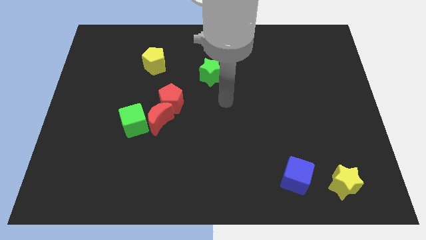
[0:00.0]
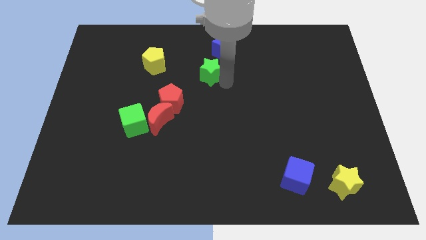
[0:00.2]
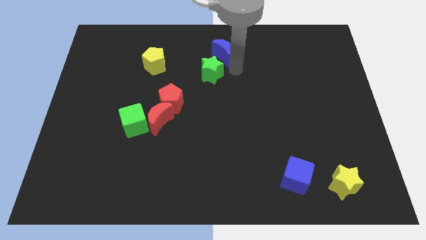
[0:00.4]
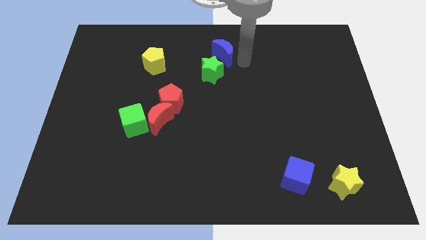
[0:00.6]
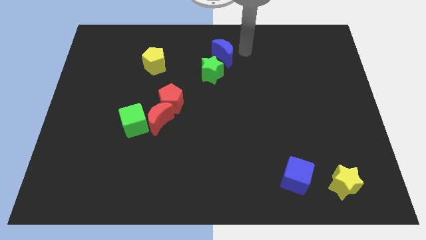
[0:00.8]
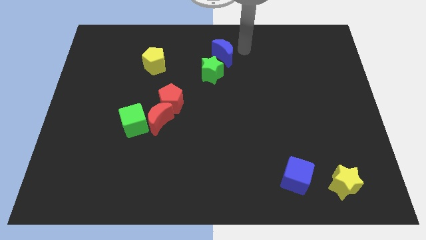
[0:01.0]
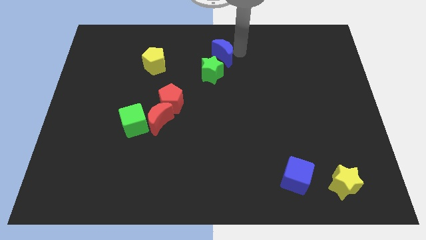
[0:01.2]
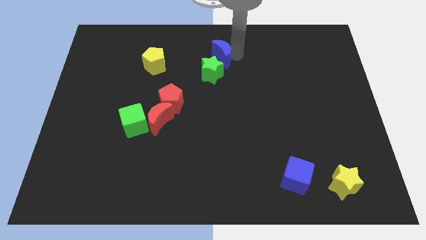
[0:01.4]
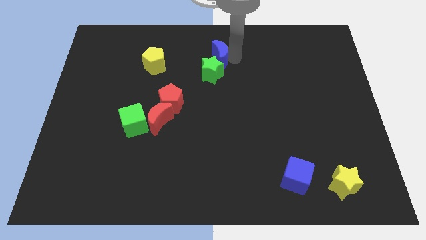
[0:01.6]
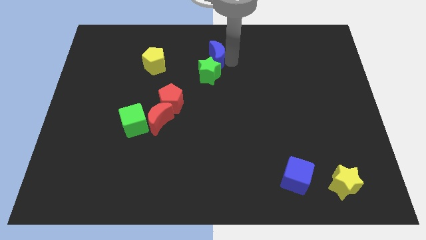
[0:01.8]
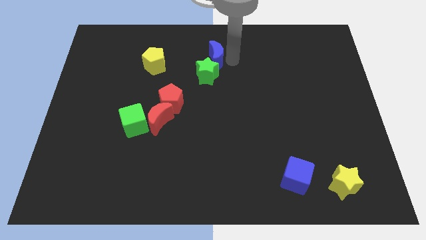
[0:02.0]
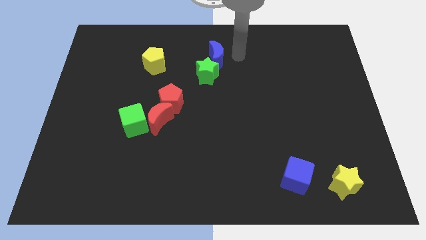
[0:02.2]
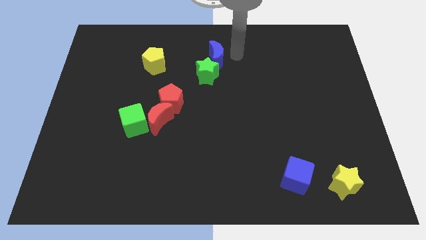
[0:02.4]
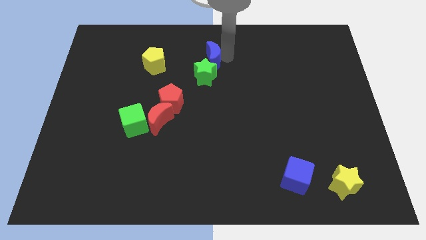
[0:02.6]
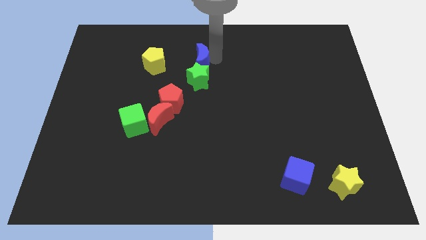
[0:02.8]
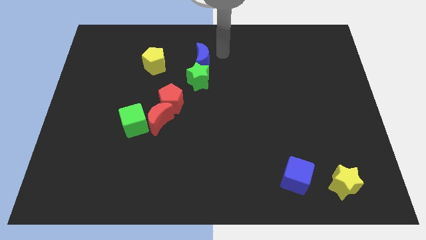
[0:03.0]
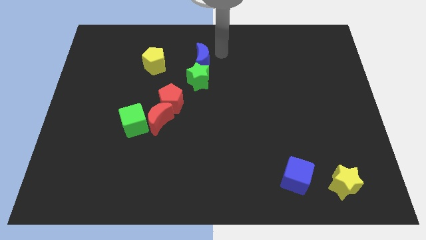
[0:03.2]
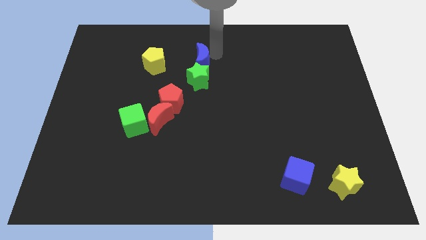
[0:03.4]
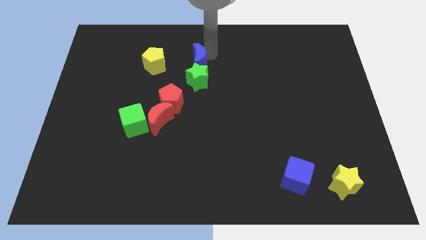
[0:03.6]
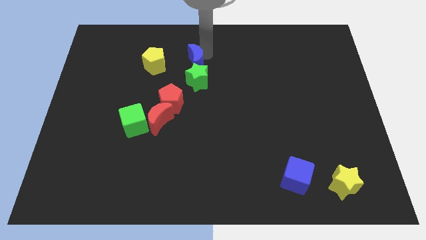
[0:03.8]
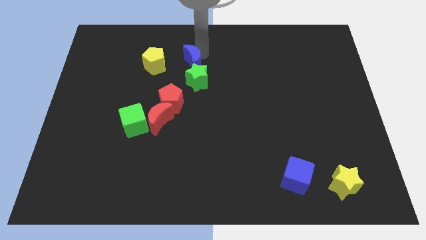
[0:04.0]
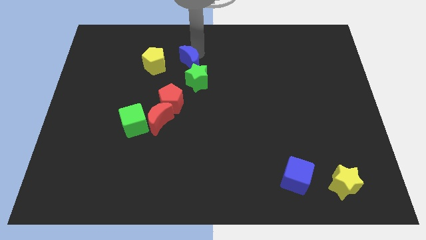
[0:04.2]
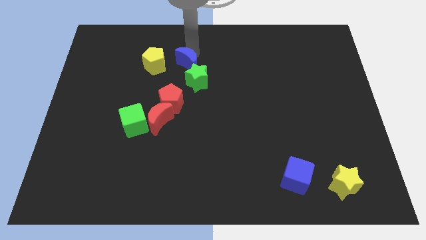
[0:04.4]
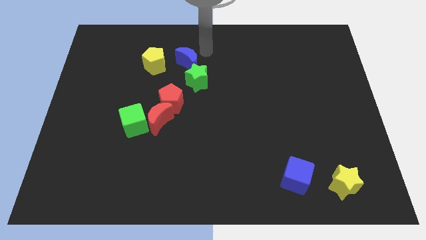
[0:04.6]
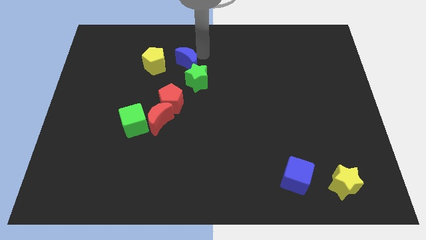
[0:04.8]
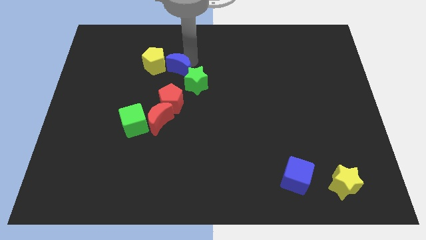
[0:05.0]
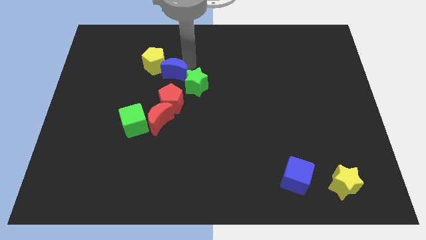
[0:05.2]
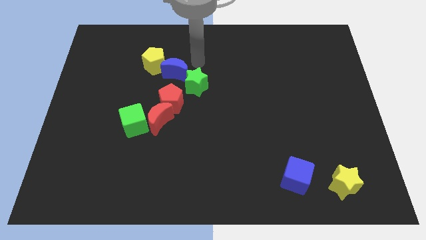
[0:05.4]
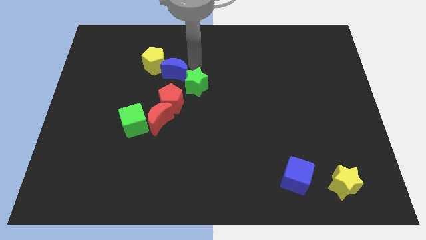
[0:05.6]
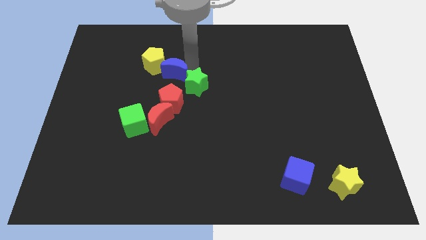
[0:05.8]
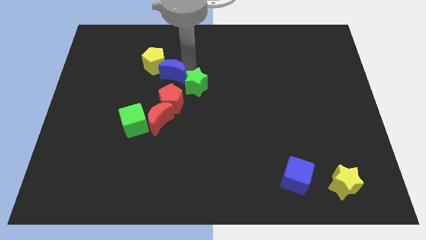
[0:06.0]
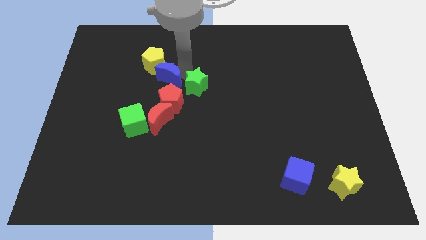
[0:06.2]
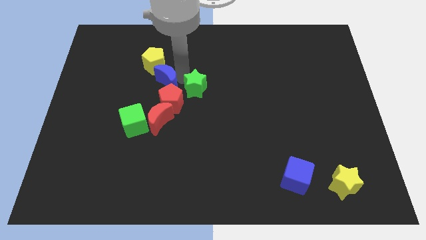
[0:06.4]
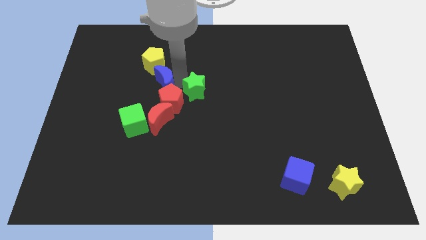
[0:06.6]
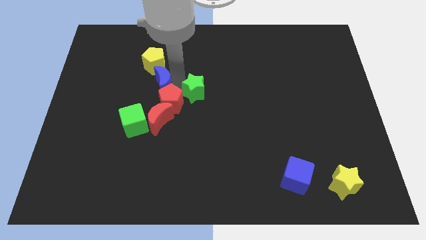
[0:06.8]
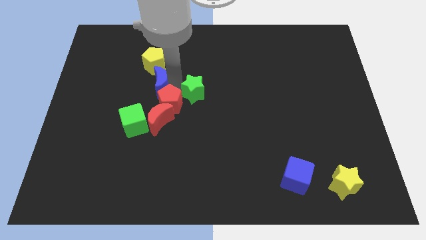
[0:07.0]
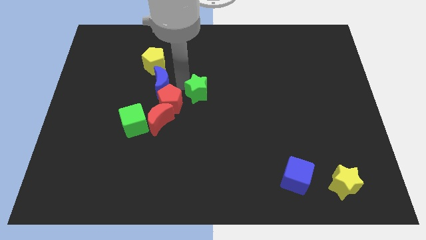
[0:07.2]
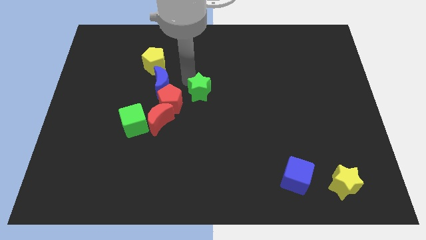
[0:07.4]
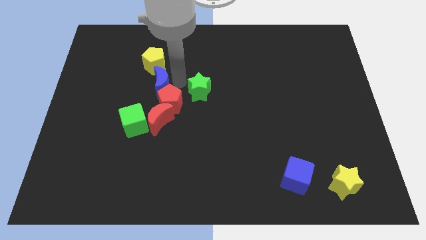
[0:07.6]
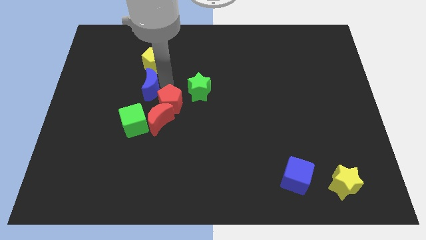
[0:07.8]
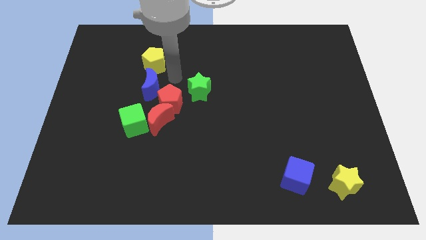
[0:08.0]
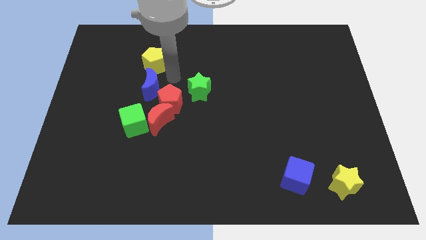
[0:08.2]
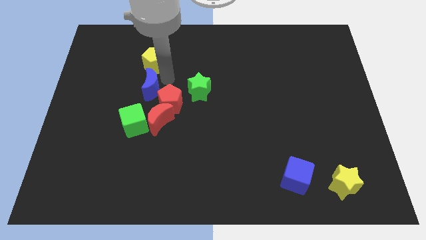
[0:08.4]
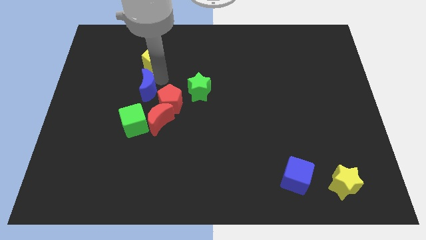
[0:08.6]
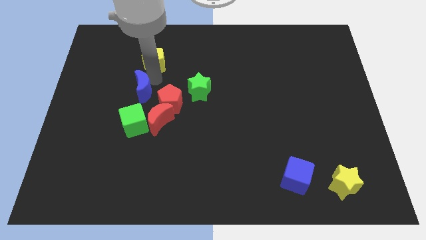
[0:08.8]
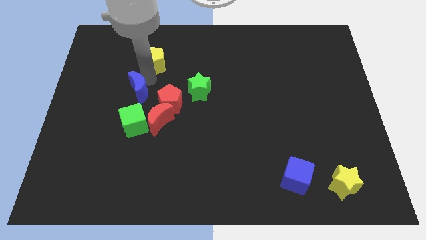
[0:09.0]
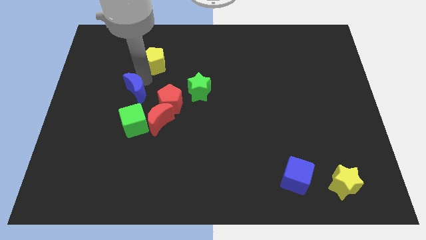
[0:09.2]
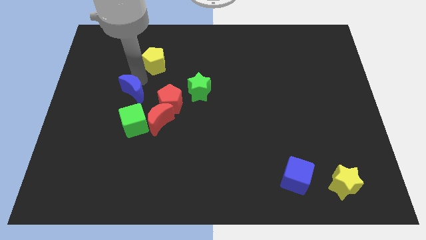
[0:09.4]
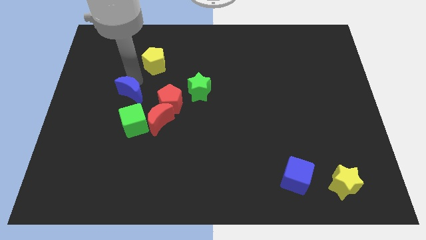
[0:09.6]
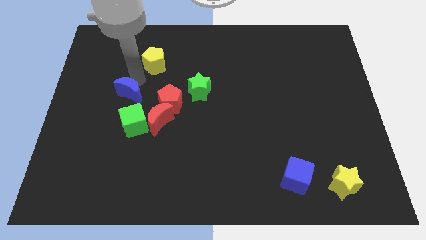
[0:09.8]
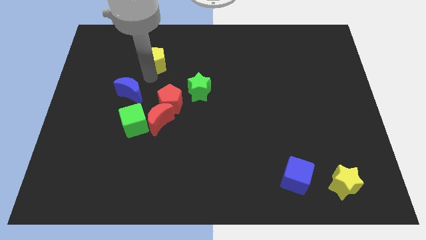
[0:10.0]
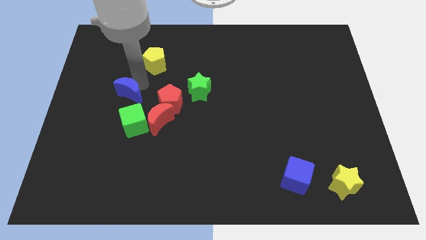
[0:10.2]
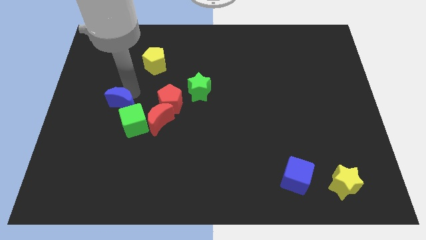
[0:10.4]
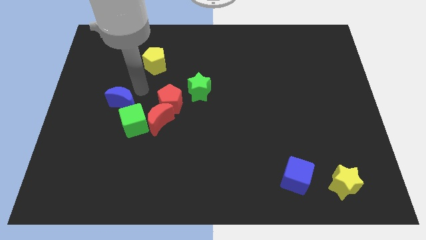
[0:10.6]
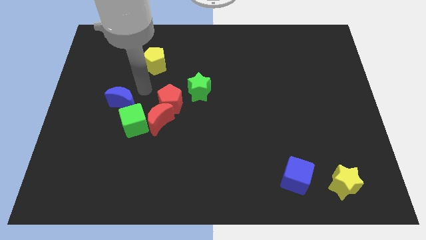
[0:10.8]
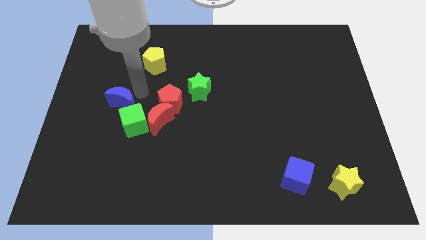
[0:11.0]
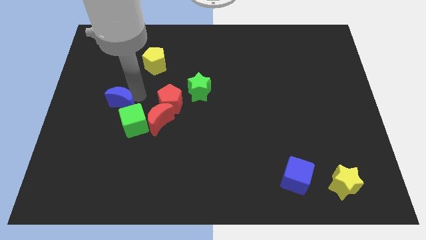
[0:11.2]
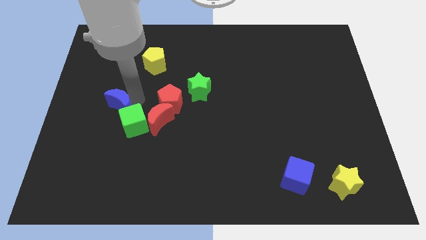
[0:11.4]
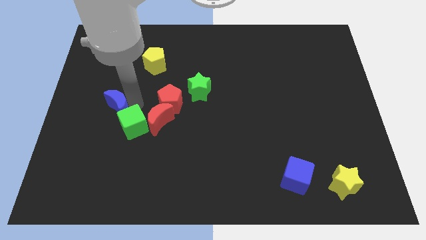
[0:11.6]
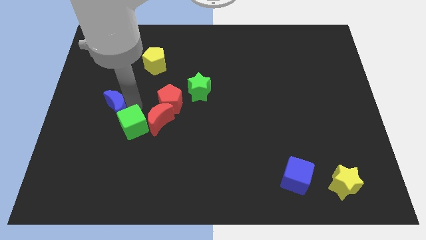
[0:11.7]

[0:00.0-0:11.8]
slide the blue moon just left of the green cube

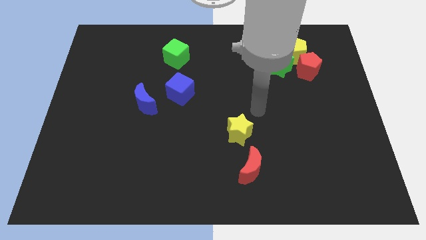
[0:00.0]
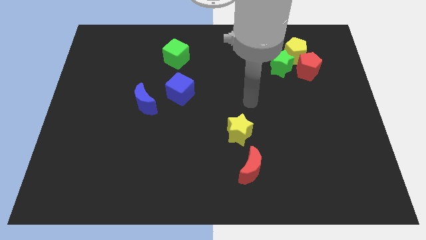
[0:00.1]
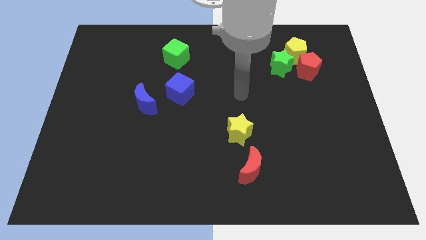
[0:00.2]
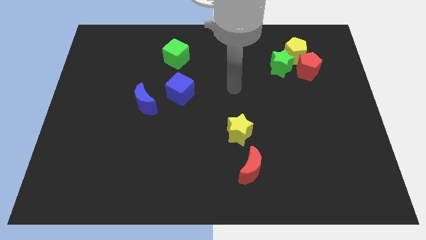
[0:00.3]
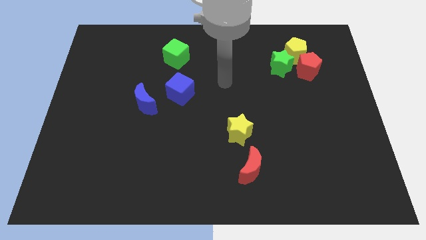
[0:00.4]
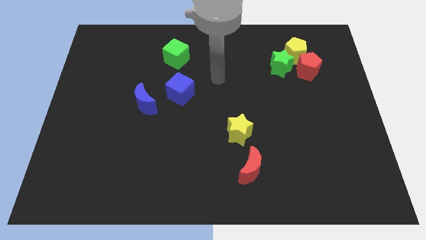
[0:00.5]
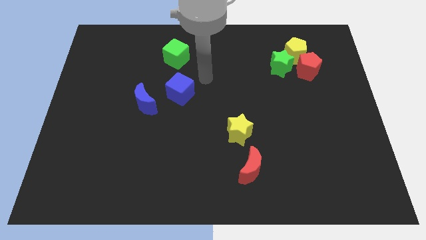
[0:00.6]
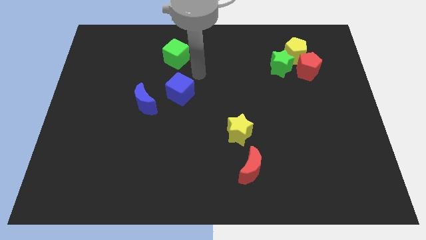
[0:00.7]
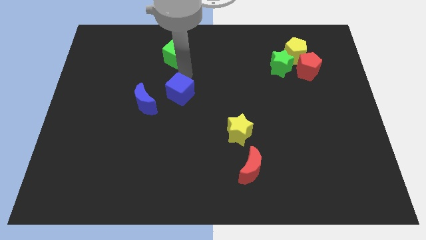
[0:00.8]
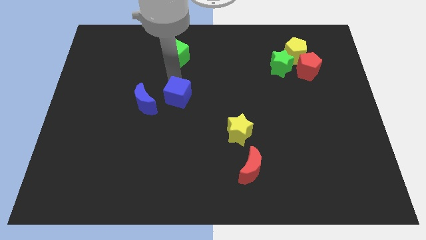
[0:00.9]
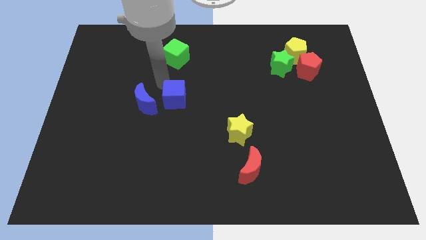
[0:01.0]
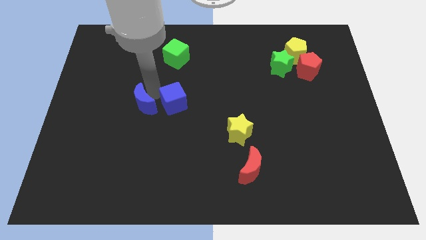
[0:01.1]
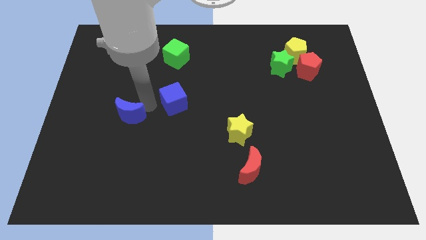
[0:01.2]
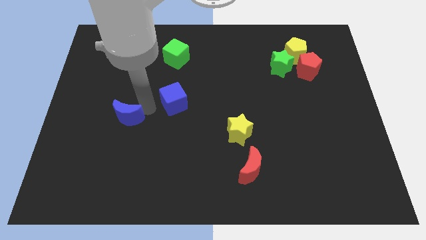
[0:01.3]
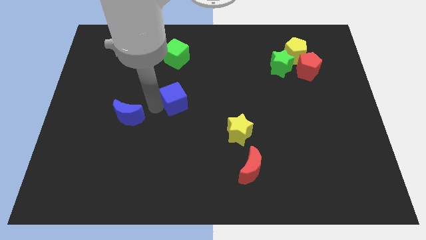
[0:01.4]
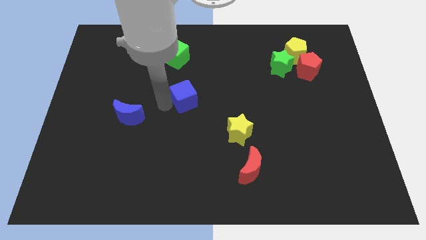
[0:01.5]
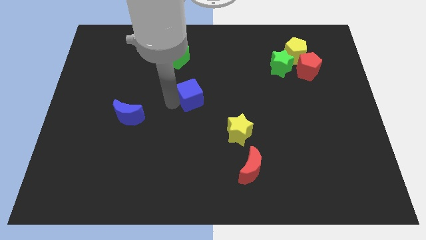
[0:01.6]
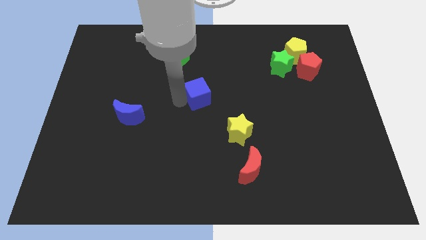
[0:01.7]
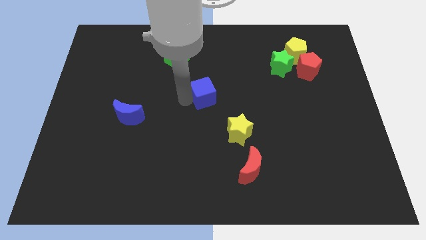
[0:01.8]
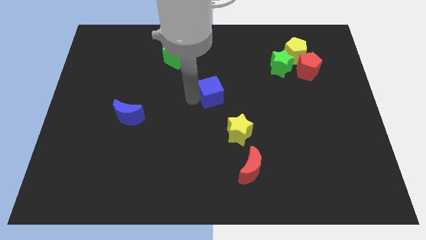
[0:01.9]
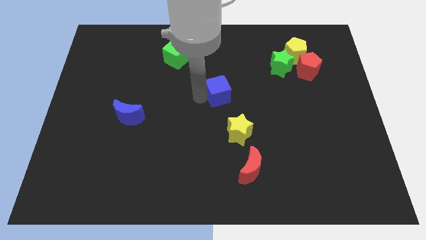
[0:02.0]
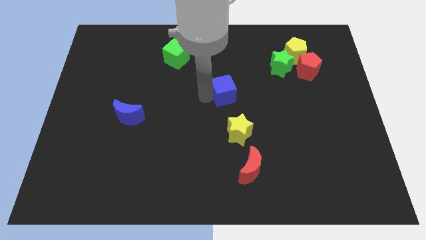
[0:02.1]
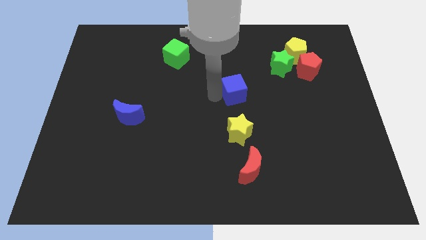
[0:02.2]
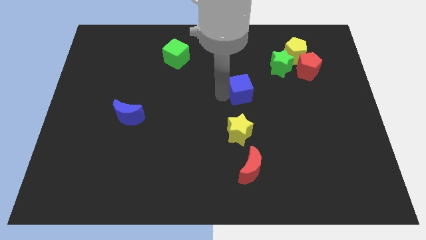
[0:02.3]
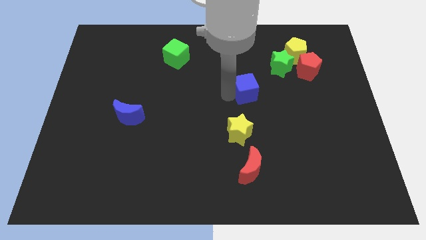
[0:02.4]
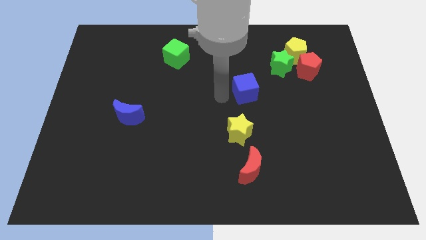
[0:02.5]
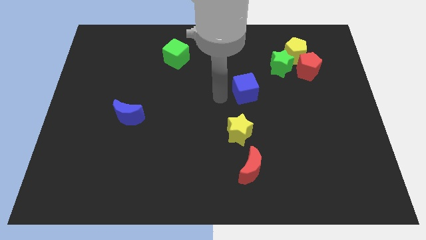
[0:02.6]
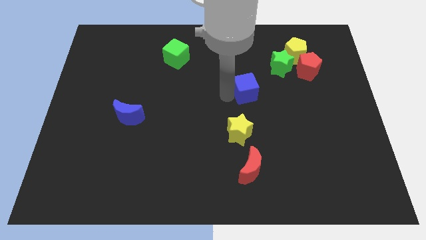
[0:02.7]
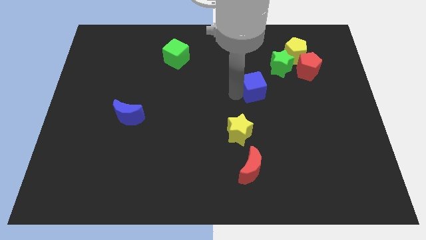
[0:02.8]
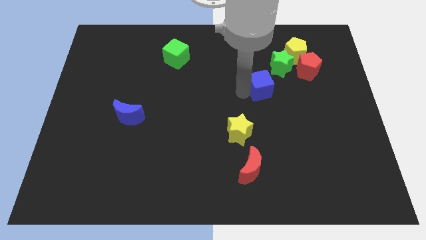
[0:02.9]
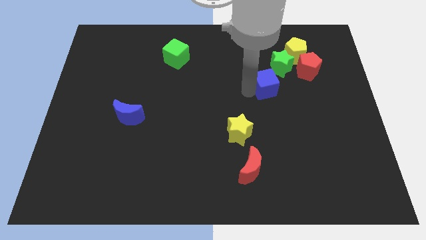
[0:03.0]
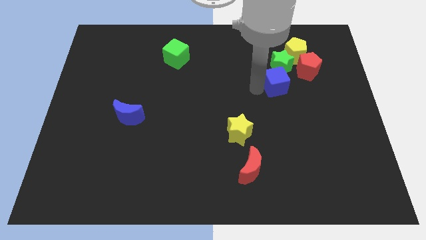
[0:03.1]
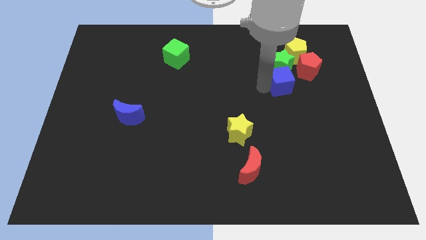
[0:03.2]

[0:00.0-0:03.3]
push the blue cube to the bottom of the yellow pentagon
